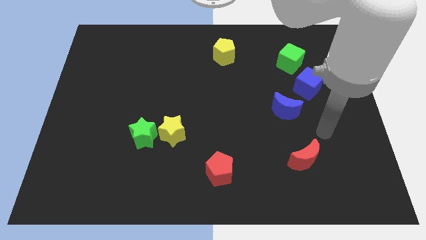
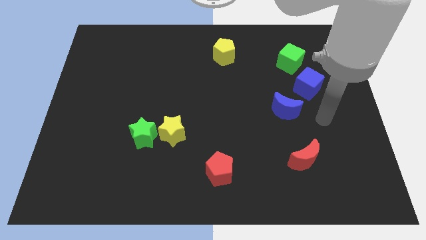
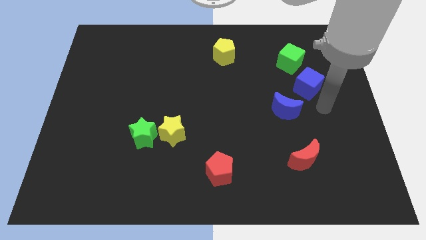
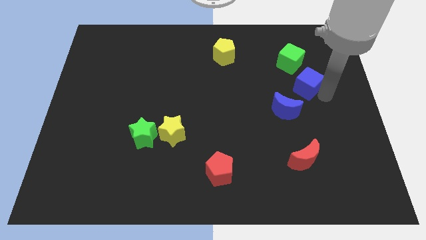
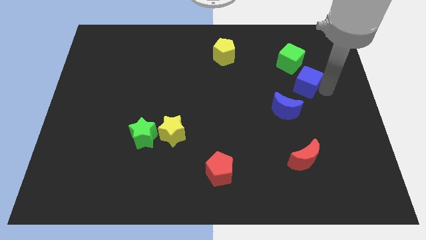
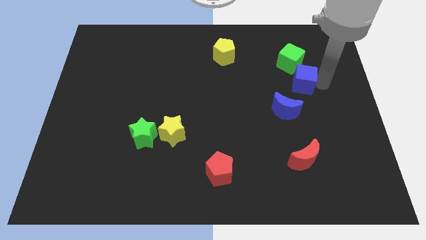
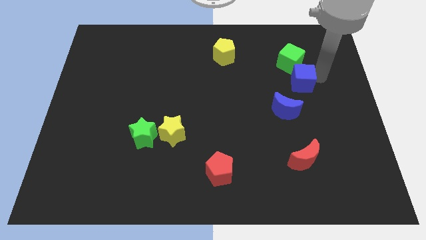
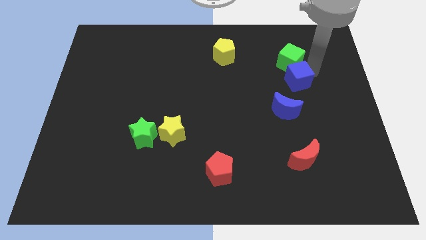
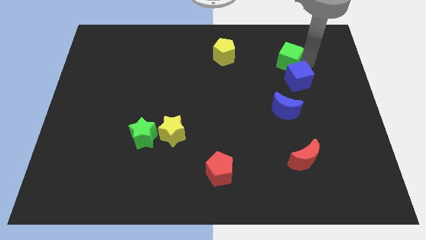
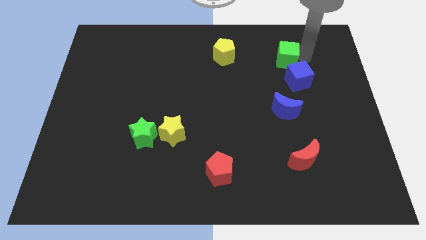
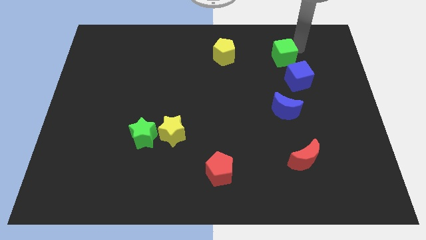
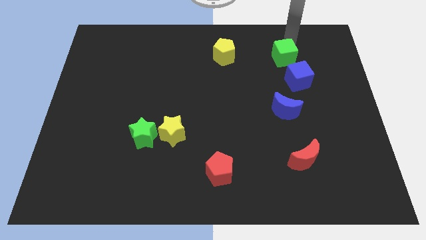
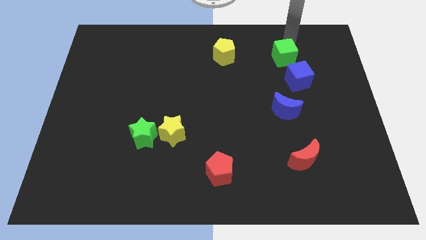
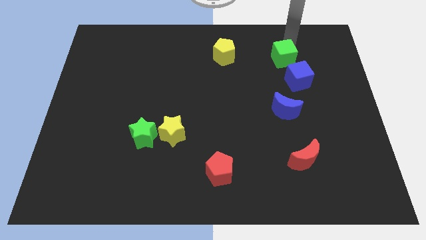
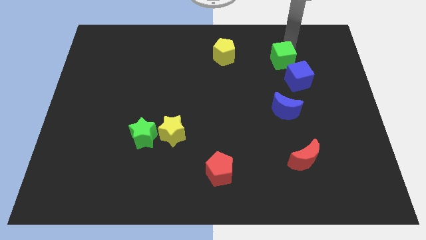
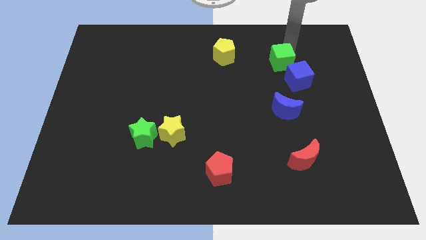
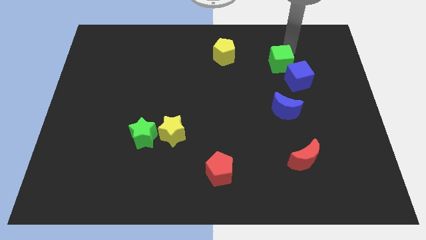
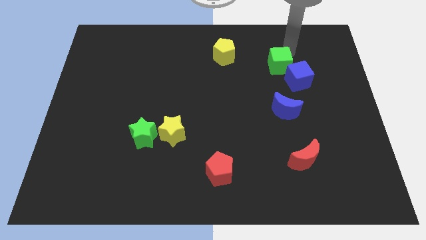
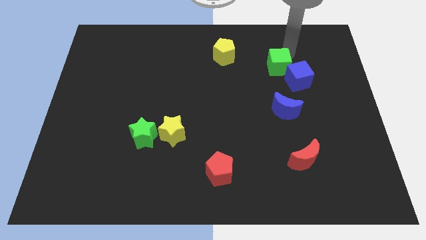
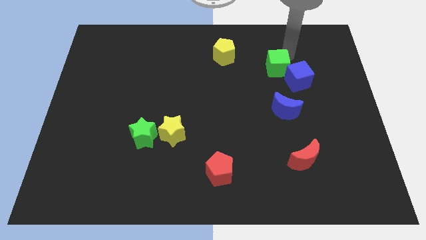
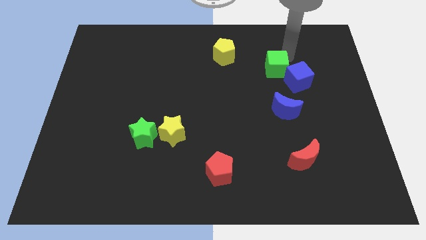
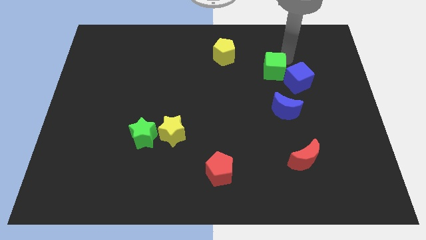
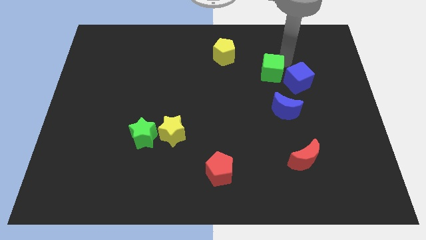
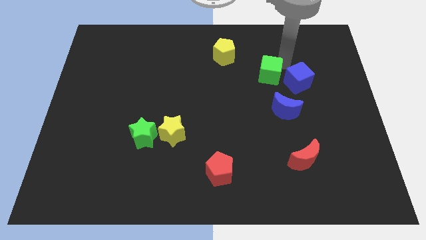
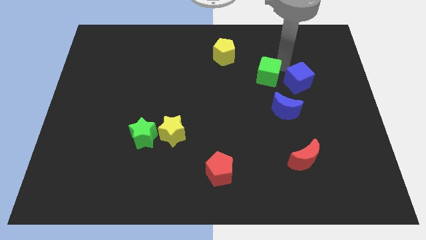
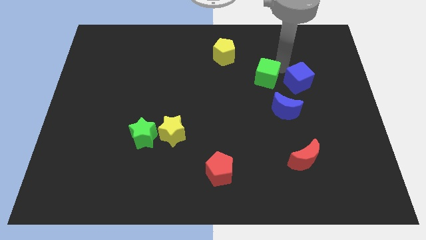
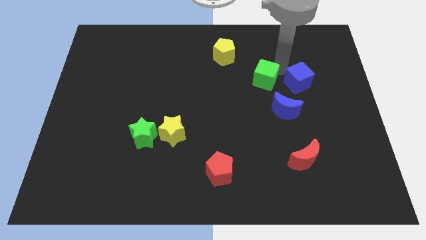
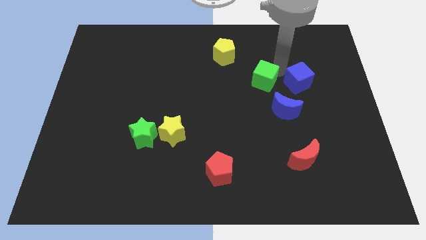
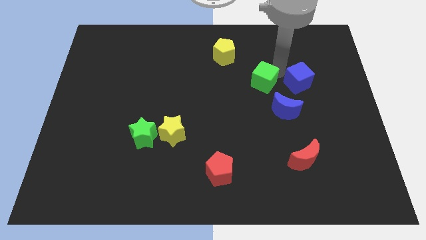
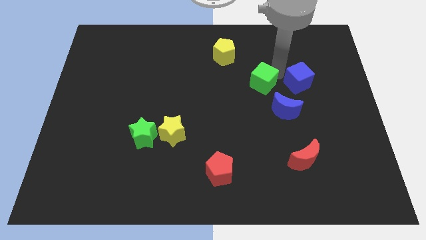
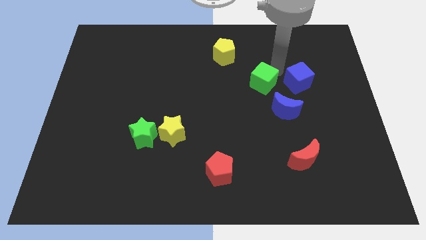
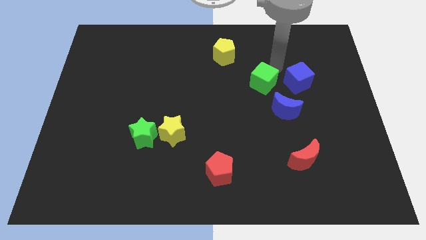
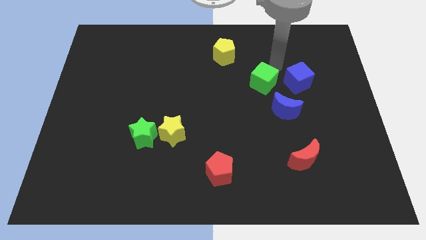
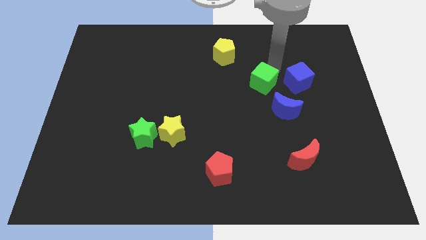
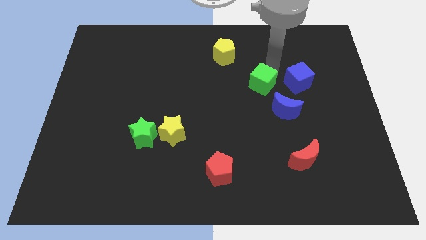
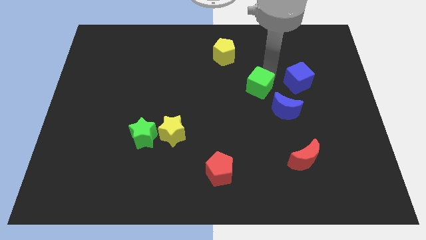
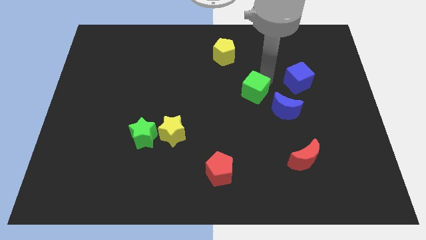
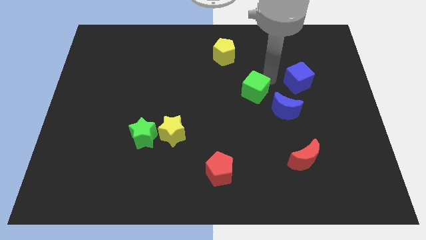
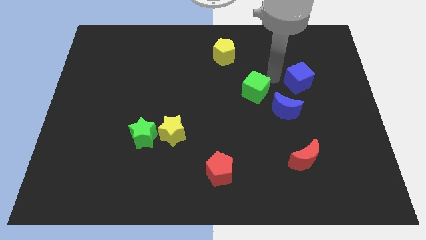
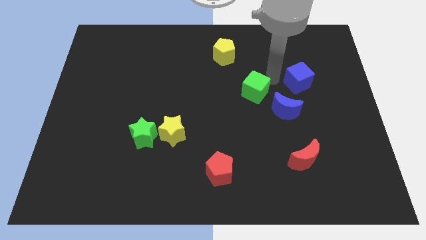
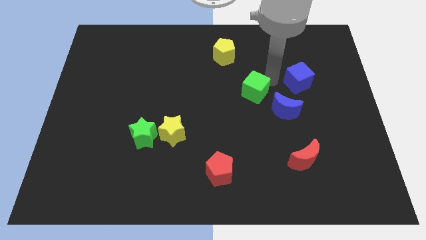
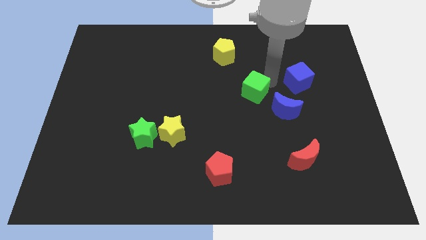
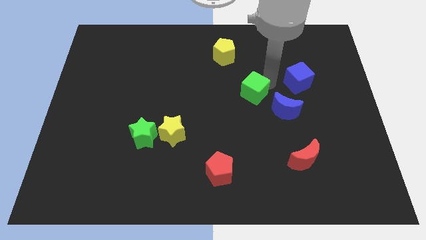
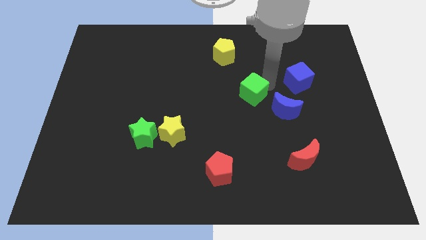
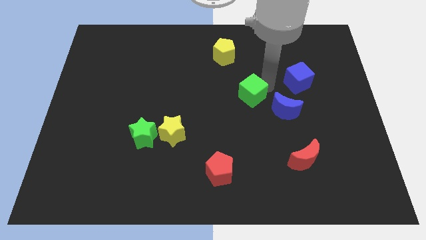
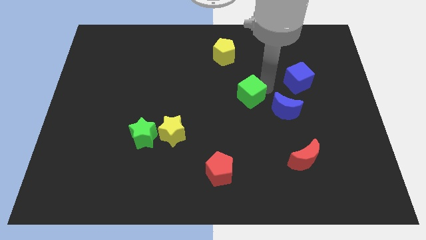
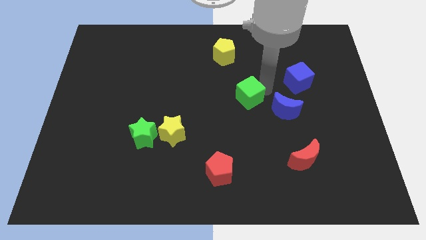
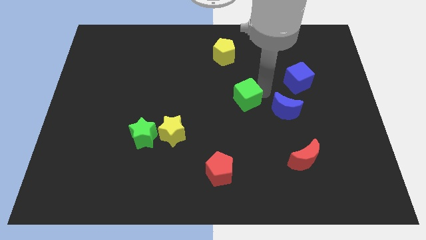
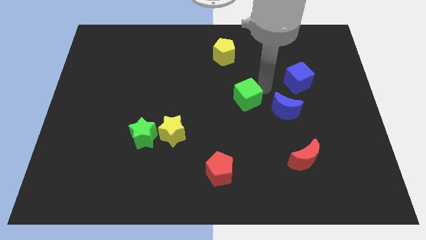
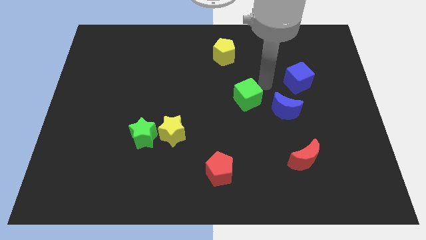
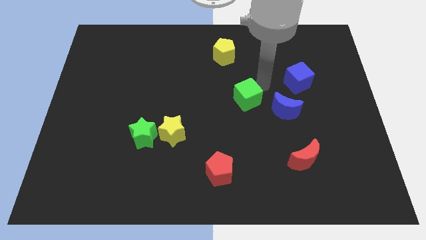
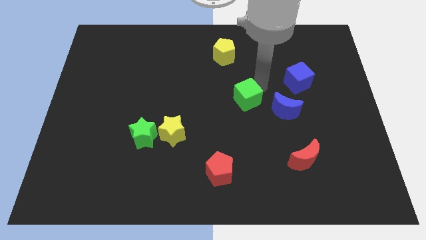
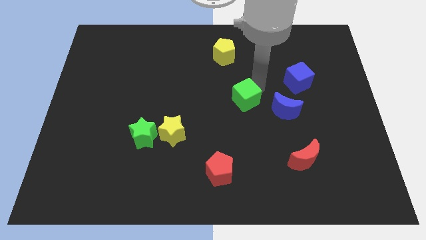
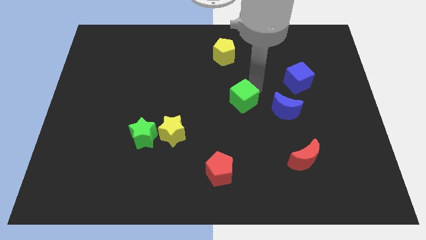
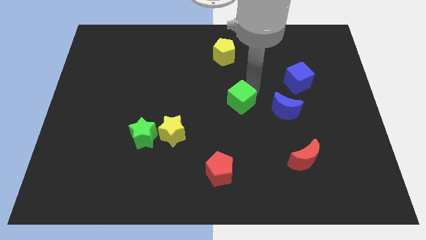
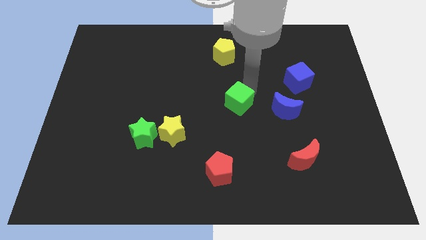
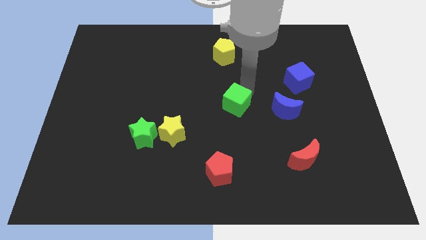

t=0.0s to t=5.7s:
move the green cube downwards and left

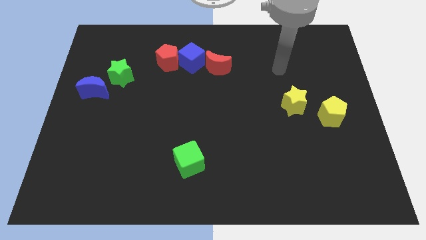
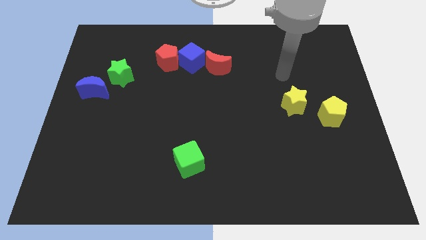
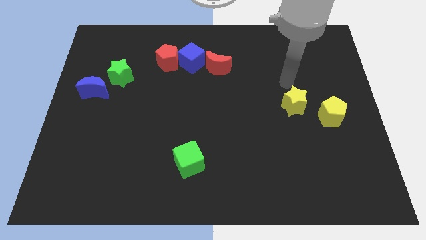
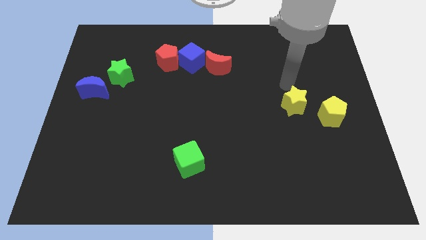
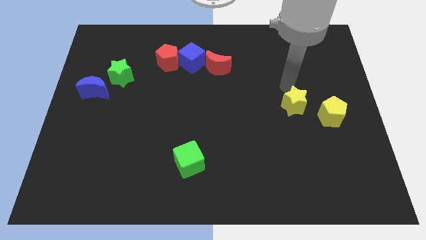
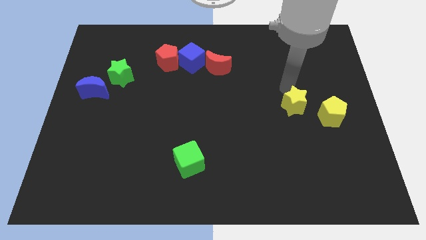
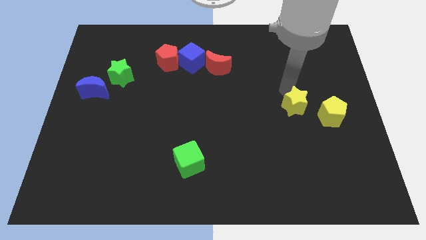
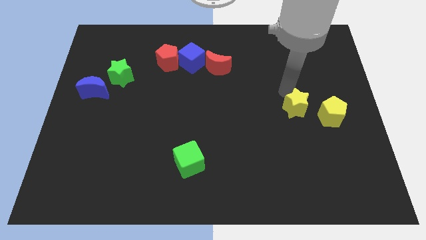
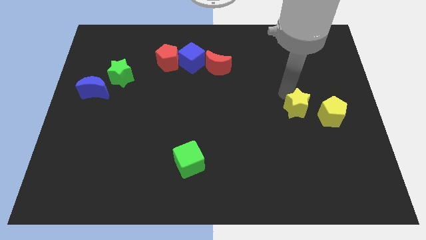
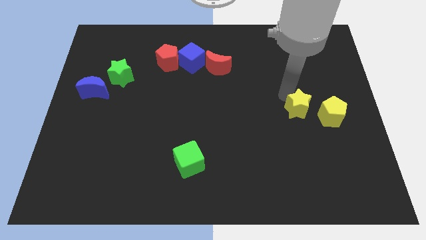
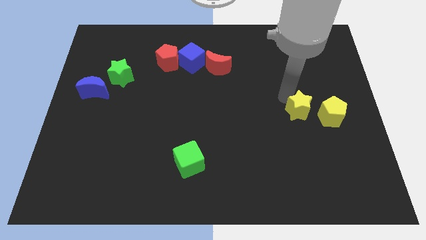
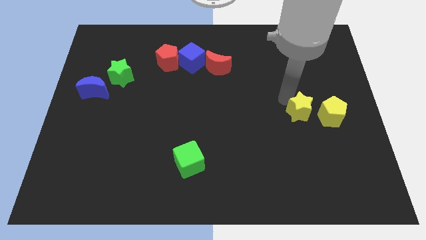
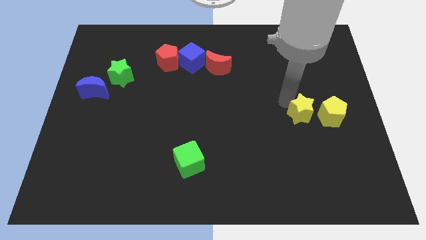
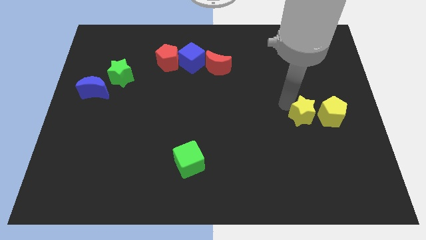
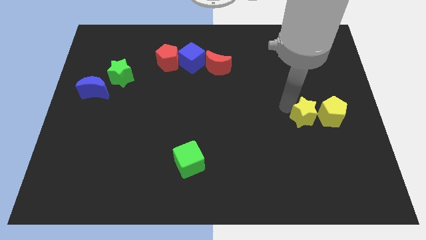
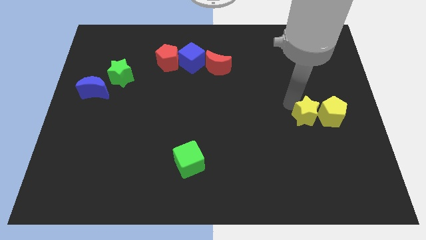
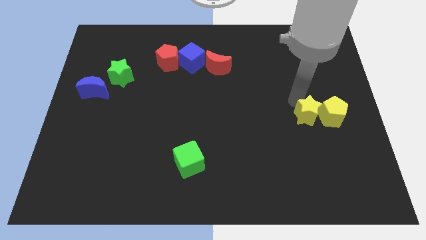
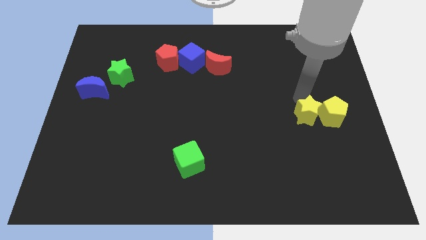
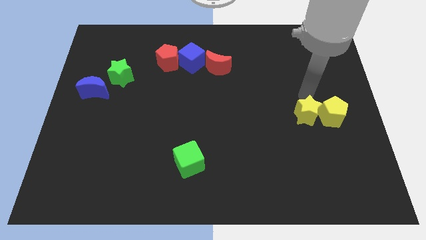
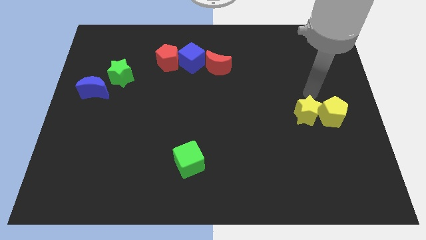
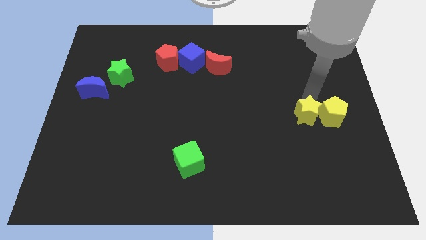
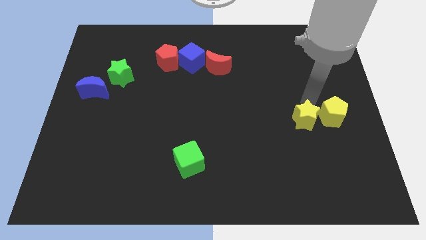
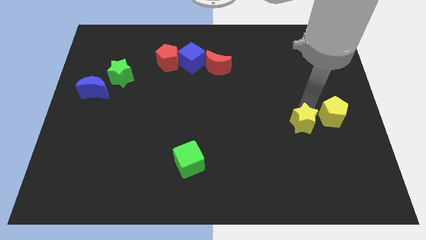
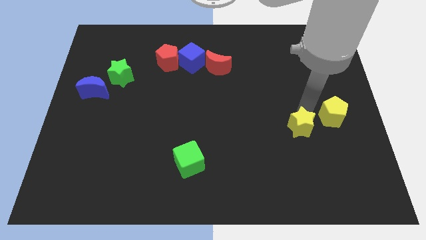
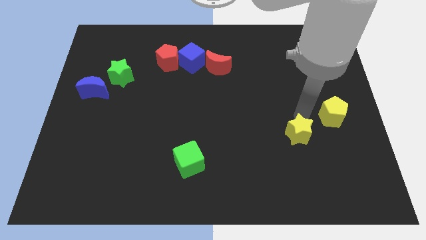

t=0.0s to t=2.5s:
slide the yellow star down a little bit
